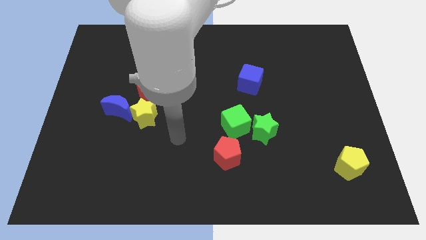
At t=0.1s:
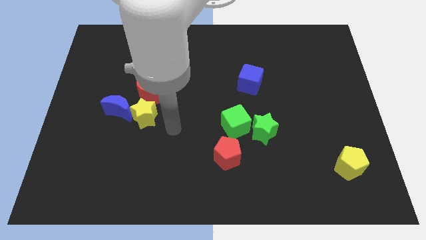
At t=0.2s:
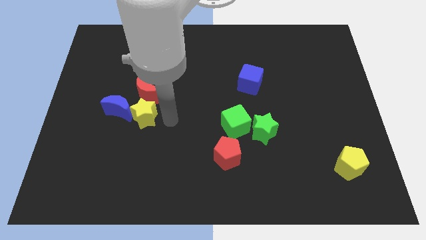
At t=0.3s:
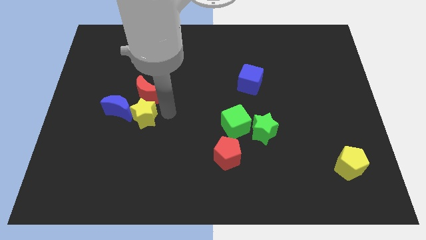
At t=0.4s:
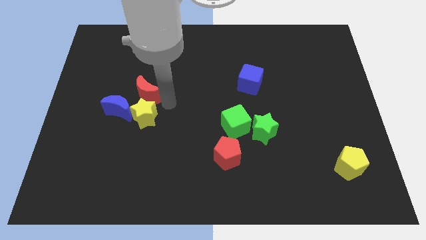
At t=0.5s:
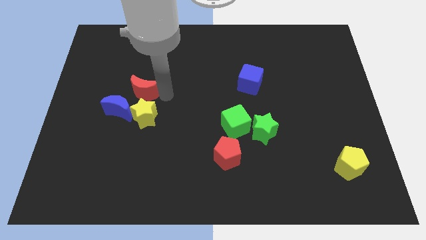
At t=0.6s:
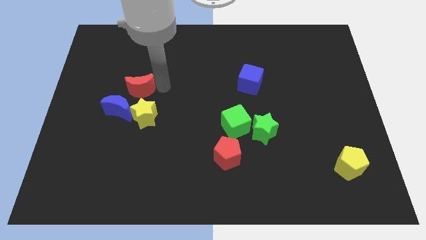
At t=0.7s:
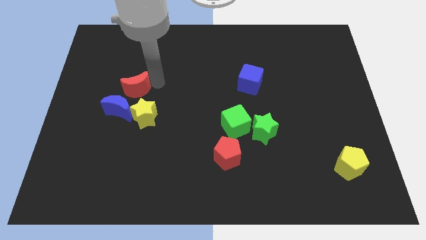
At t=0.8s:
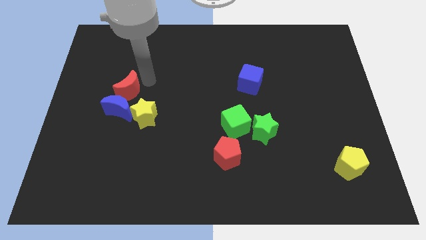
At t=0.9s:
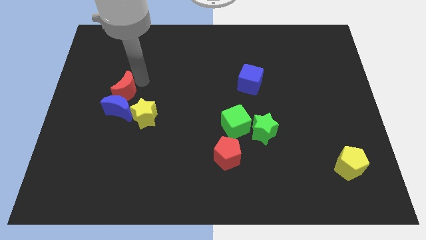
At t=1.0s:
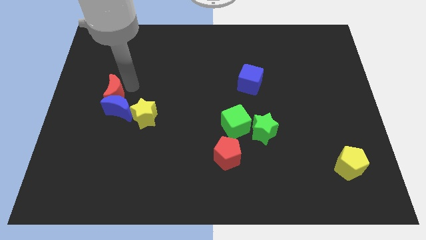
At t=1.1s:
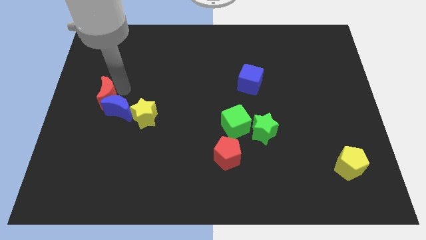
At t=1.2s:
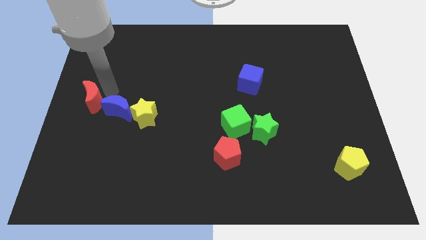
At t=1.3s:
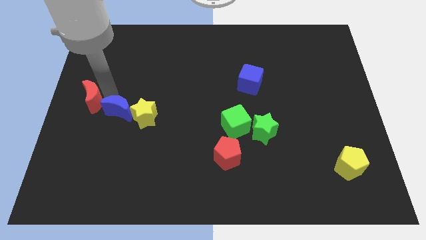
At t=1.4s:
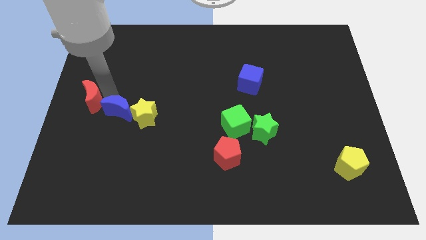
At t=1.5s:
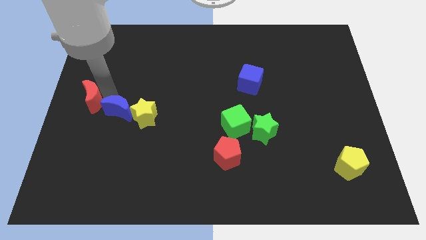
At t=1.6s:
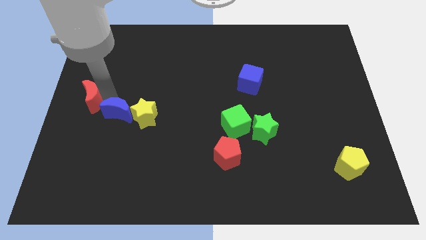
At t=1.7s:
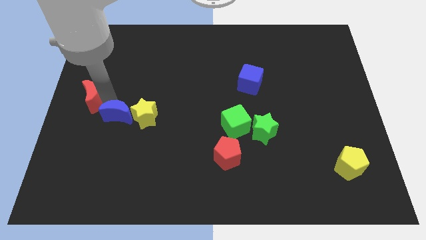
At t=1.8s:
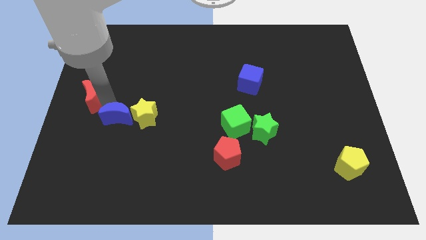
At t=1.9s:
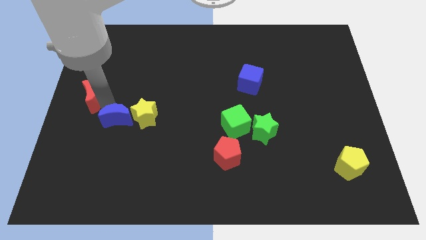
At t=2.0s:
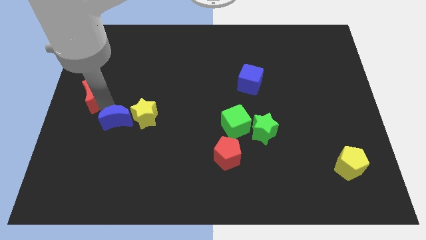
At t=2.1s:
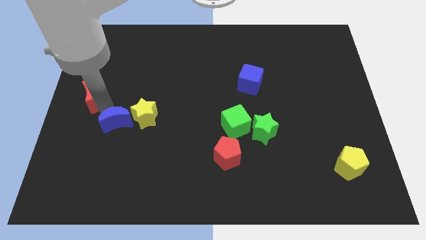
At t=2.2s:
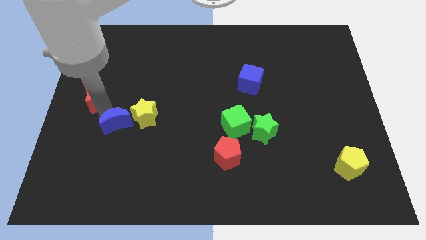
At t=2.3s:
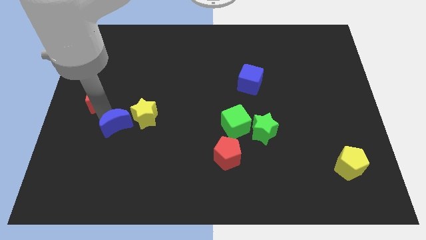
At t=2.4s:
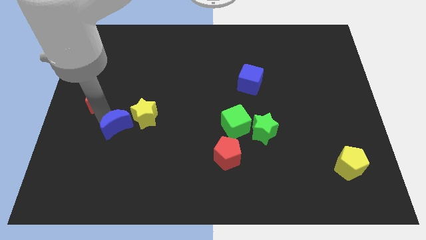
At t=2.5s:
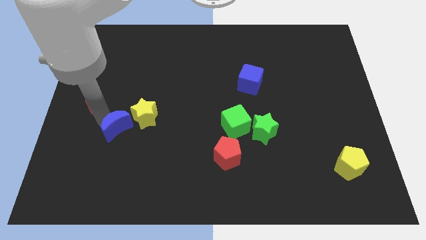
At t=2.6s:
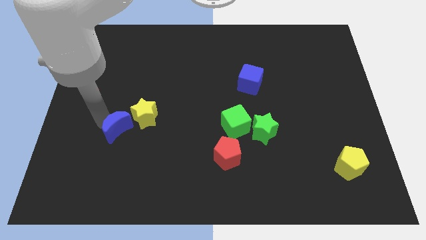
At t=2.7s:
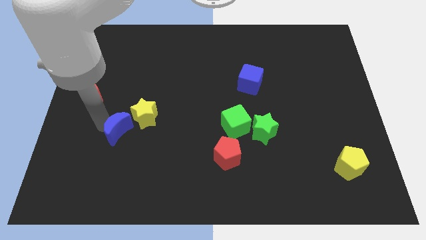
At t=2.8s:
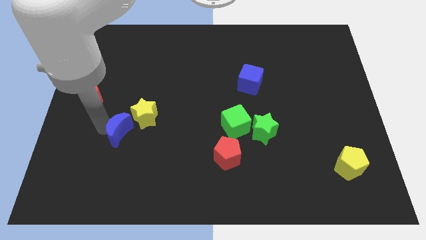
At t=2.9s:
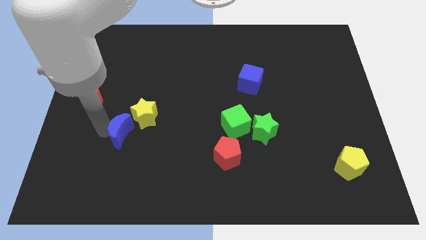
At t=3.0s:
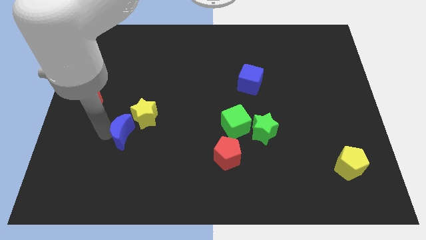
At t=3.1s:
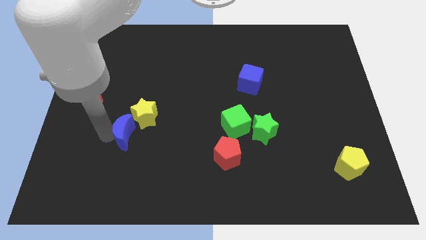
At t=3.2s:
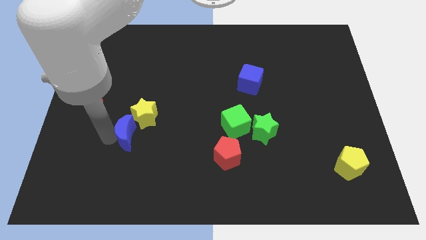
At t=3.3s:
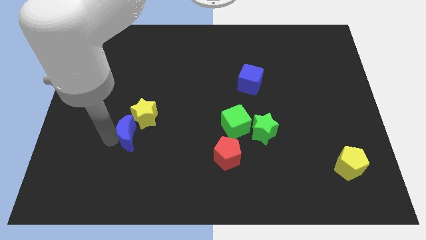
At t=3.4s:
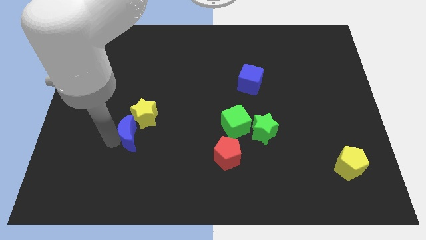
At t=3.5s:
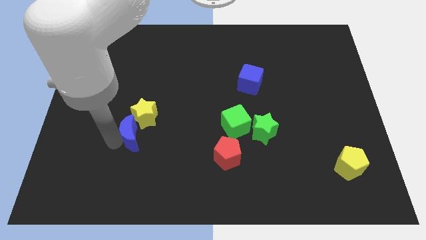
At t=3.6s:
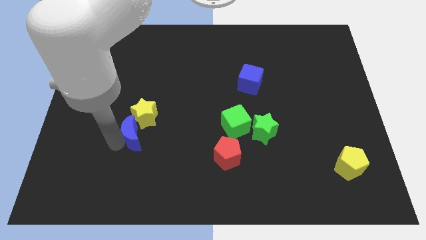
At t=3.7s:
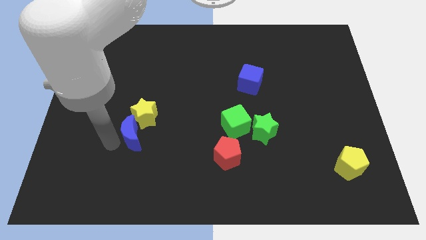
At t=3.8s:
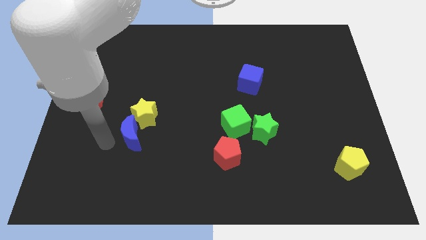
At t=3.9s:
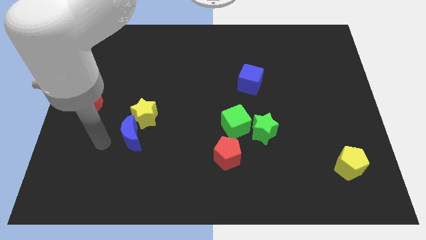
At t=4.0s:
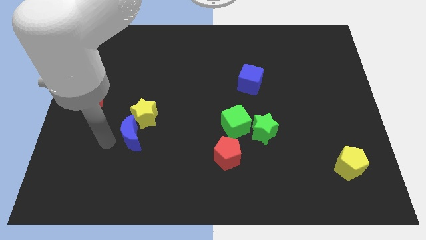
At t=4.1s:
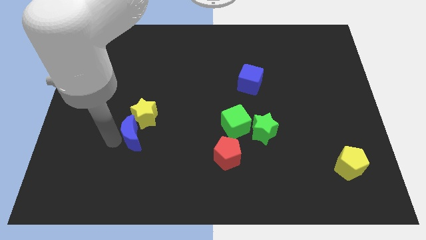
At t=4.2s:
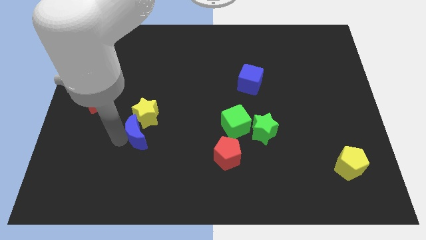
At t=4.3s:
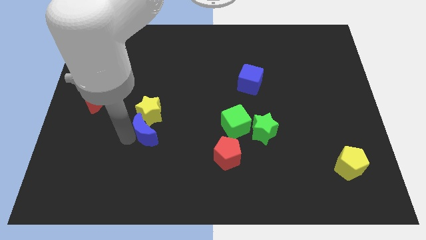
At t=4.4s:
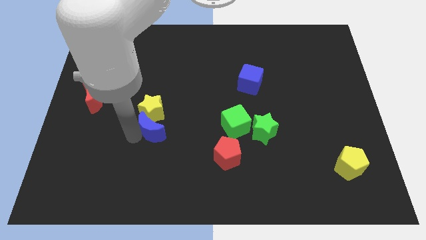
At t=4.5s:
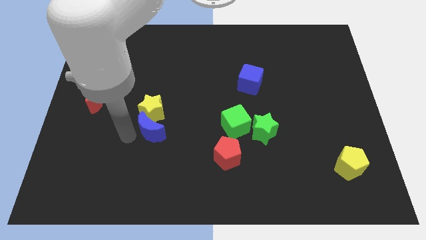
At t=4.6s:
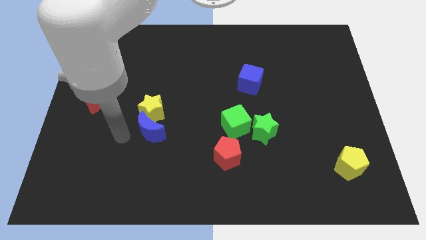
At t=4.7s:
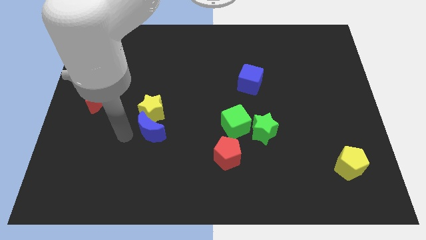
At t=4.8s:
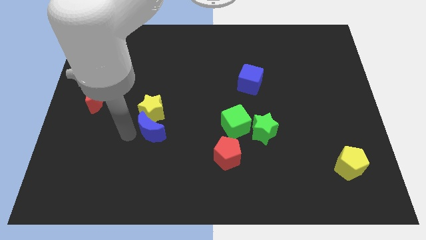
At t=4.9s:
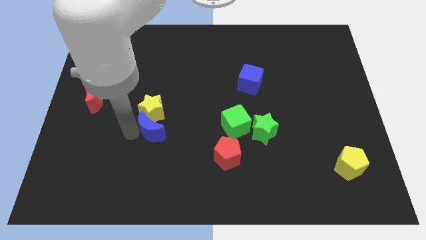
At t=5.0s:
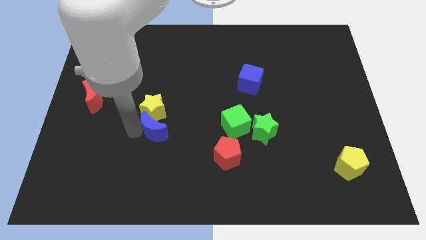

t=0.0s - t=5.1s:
move the blue moon a little right

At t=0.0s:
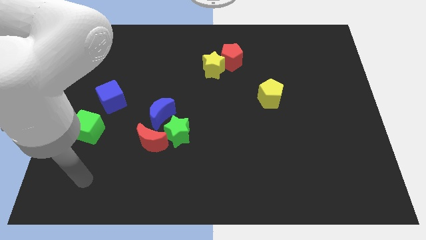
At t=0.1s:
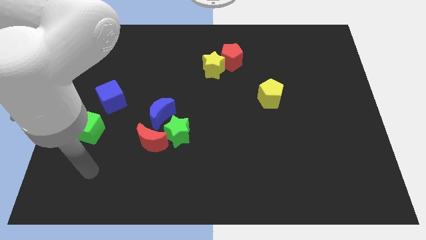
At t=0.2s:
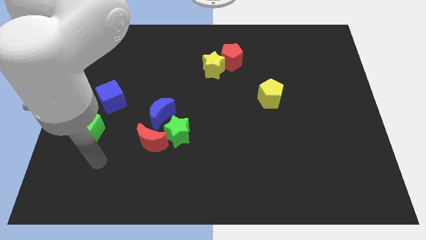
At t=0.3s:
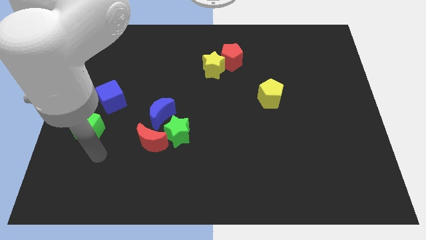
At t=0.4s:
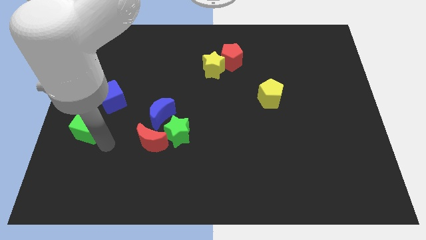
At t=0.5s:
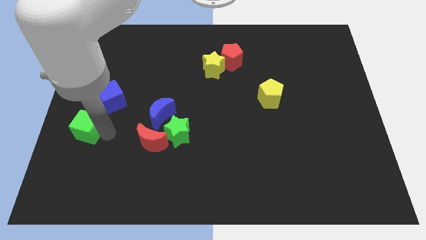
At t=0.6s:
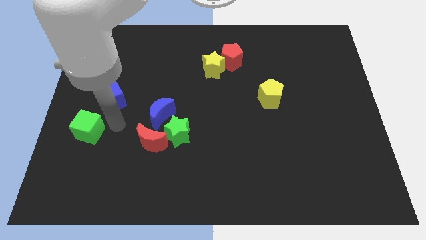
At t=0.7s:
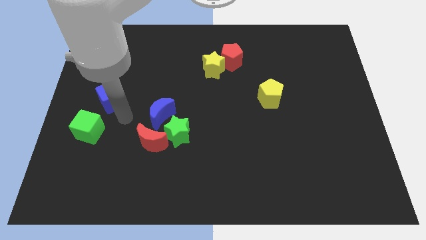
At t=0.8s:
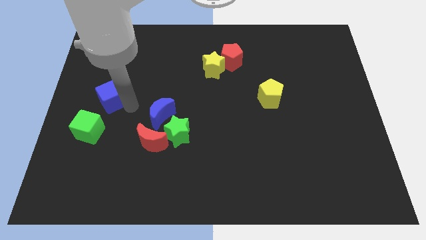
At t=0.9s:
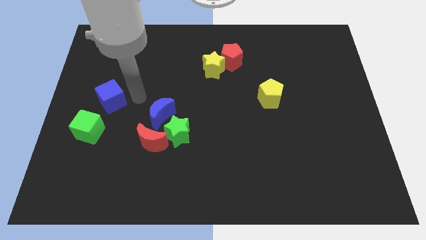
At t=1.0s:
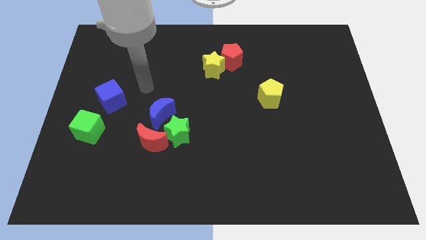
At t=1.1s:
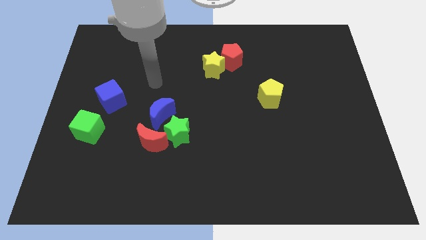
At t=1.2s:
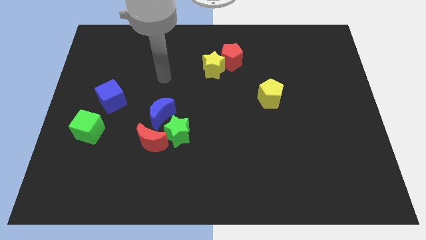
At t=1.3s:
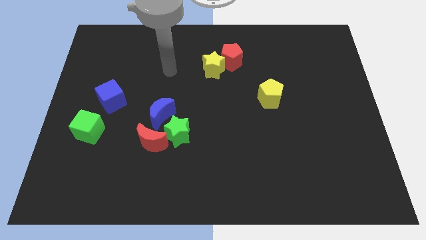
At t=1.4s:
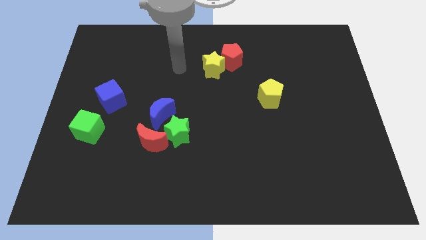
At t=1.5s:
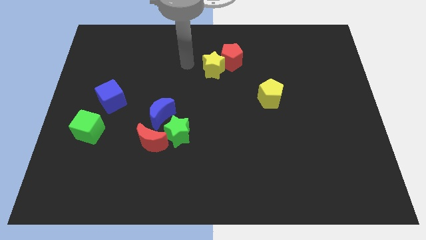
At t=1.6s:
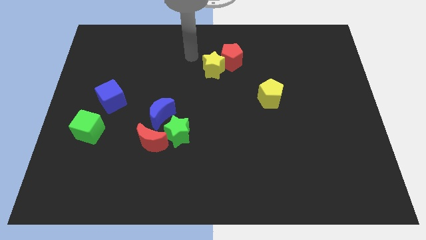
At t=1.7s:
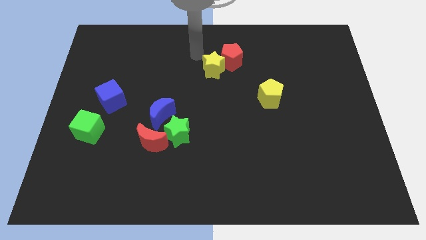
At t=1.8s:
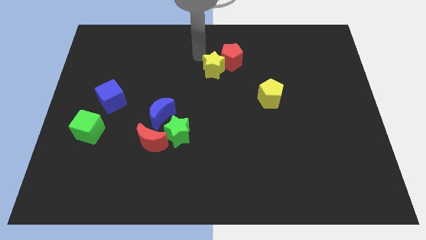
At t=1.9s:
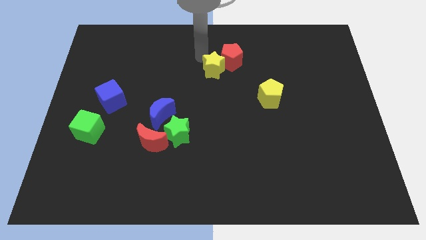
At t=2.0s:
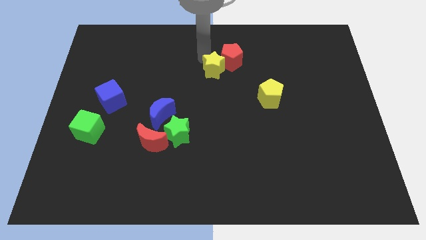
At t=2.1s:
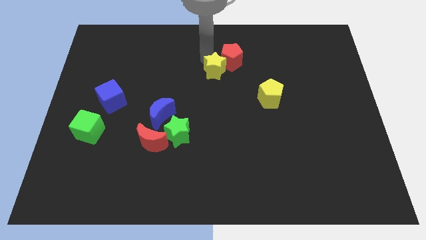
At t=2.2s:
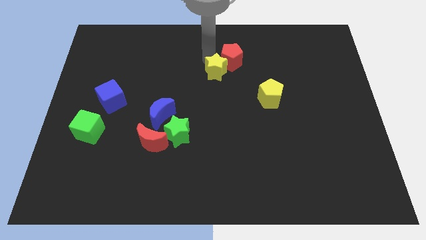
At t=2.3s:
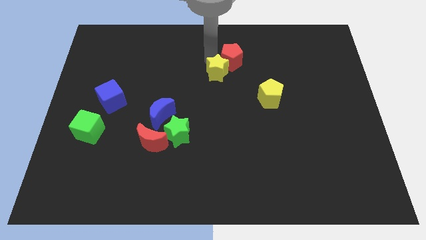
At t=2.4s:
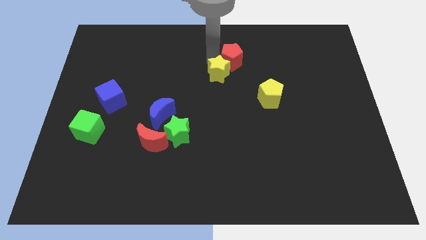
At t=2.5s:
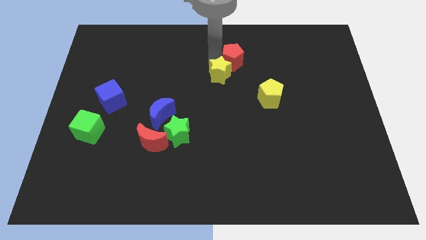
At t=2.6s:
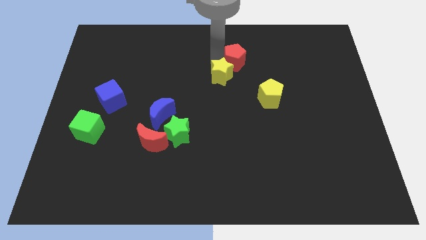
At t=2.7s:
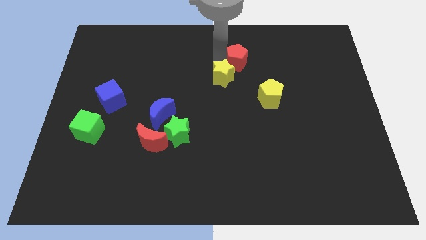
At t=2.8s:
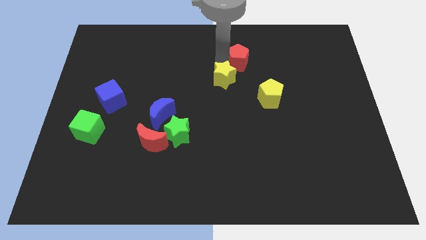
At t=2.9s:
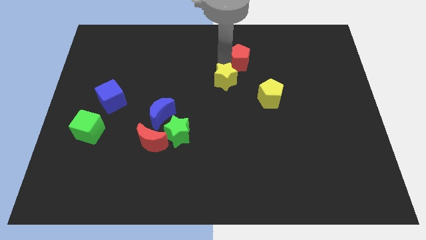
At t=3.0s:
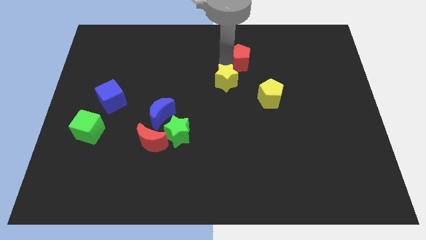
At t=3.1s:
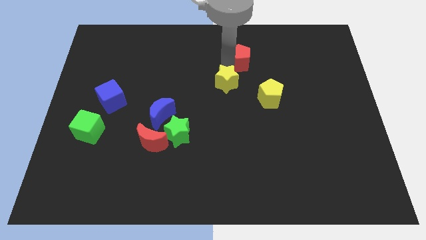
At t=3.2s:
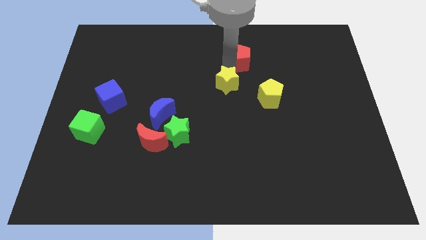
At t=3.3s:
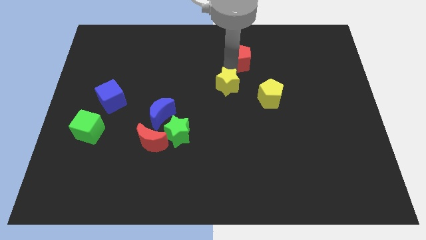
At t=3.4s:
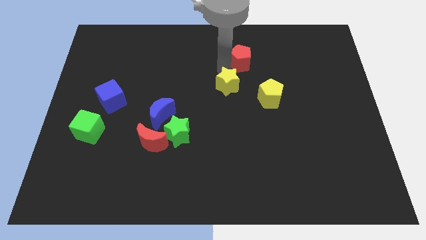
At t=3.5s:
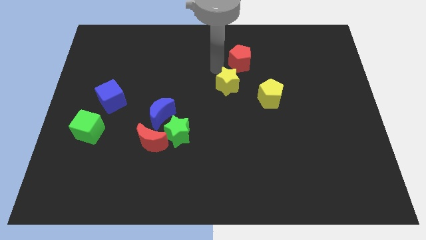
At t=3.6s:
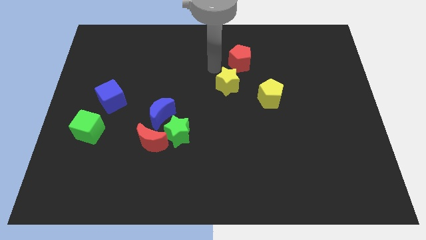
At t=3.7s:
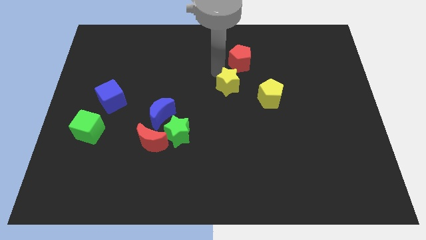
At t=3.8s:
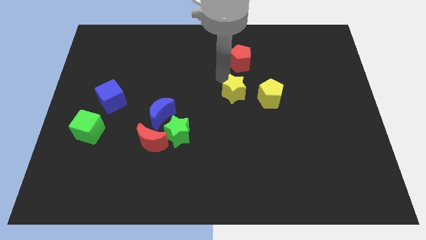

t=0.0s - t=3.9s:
slightly push the yellow star down and then right
